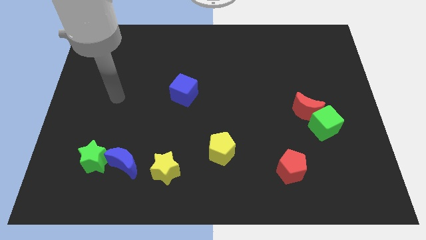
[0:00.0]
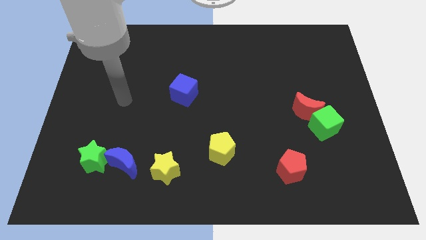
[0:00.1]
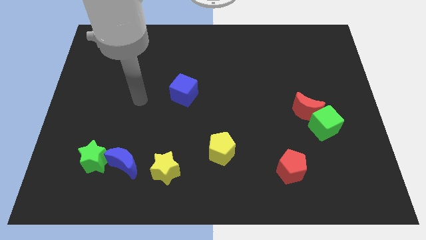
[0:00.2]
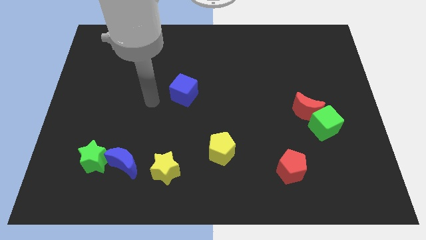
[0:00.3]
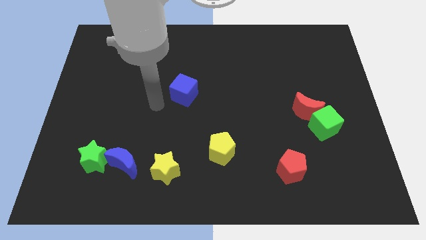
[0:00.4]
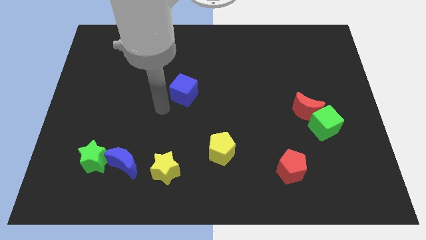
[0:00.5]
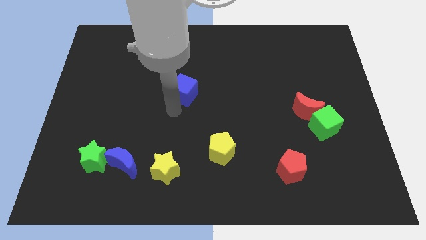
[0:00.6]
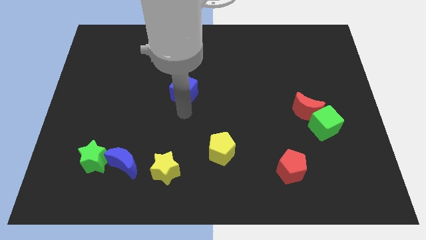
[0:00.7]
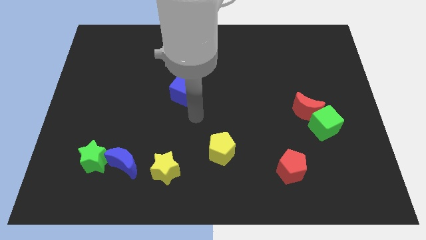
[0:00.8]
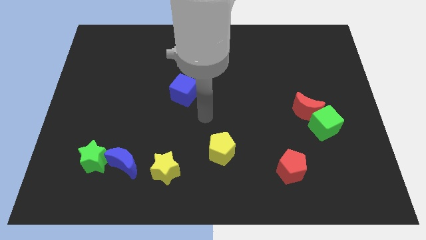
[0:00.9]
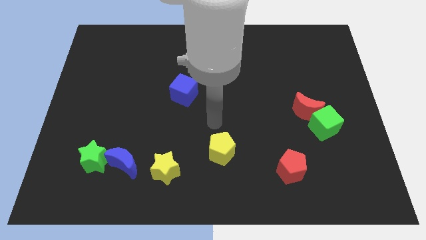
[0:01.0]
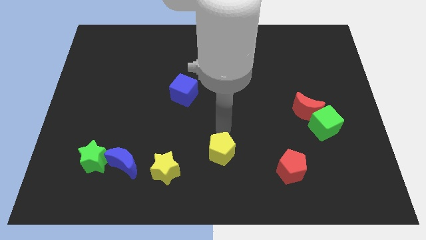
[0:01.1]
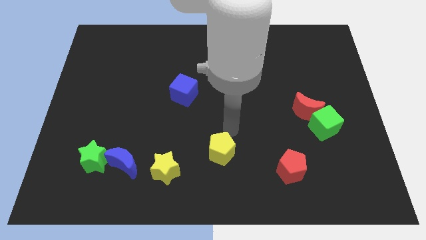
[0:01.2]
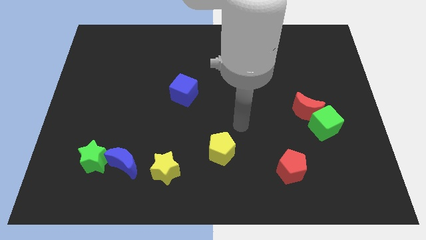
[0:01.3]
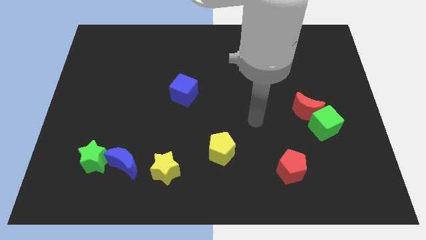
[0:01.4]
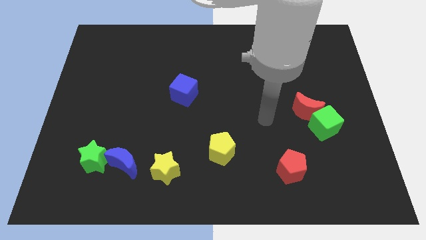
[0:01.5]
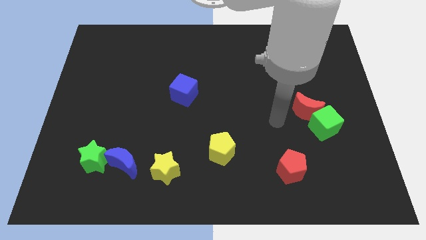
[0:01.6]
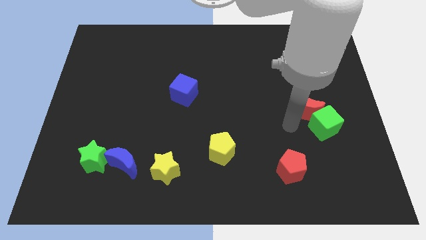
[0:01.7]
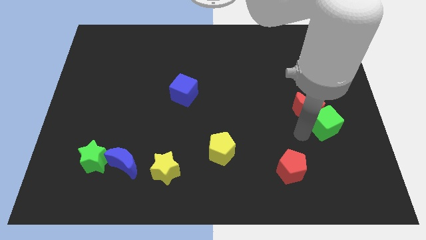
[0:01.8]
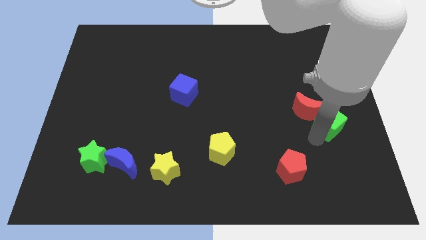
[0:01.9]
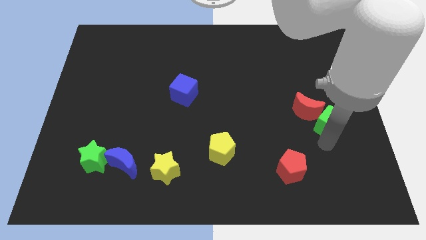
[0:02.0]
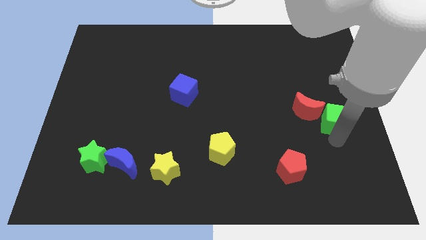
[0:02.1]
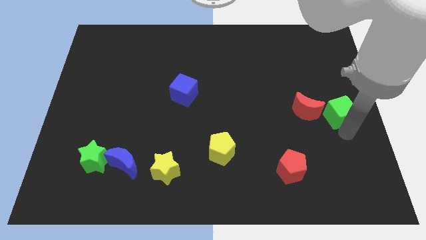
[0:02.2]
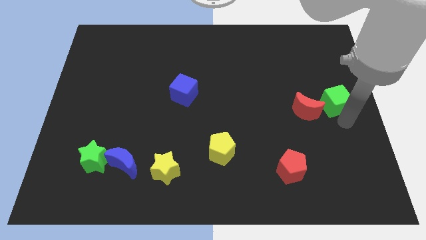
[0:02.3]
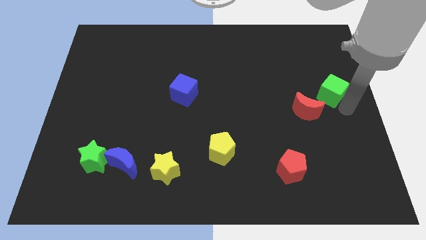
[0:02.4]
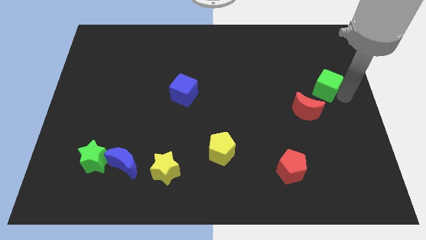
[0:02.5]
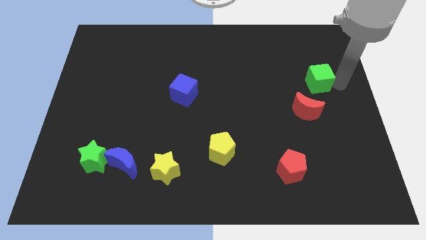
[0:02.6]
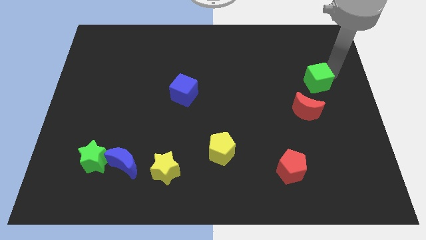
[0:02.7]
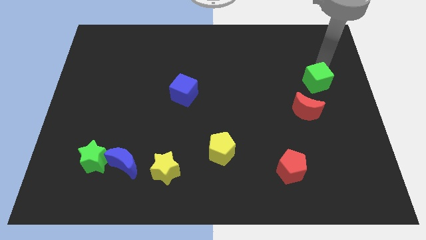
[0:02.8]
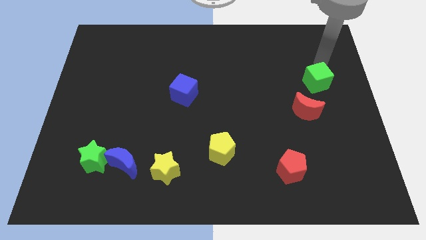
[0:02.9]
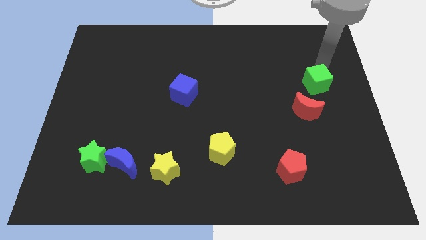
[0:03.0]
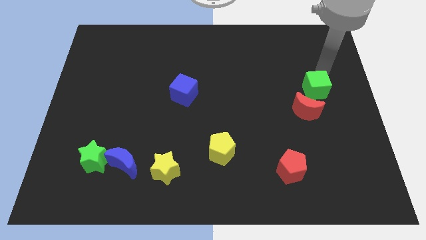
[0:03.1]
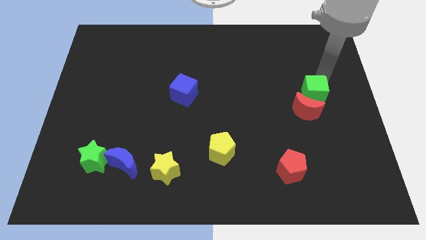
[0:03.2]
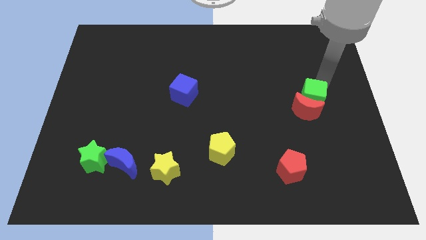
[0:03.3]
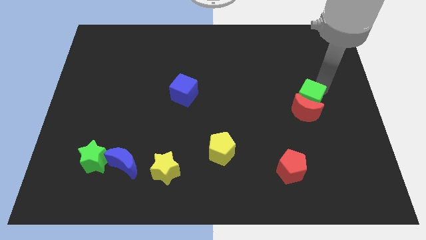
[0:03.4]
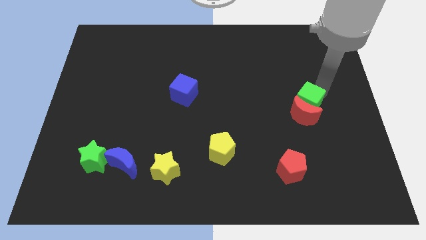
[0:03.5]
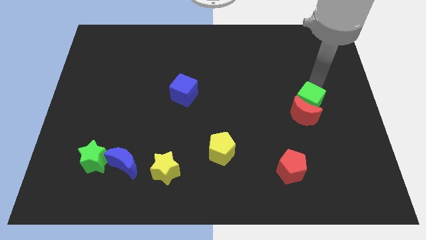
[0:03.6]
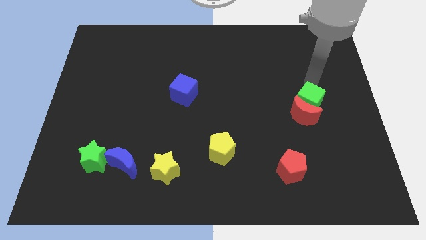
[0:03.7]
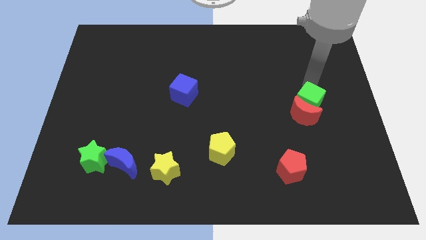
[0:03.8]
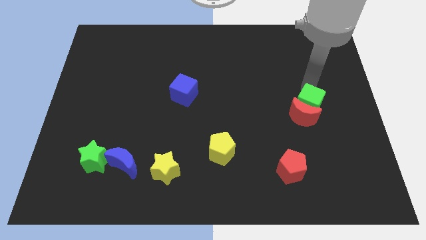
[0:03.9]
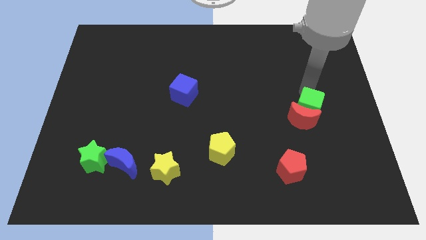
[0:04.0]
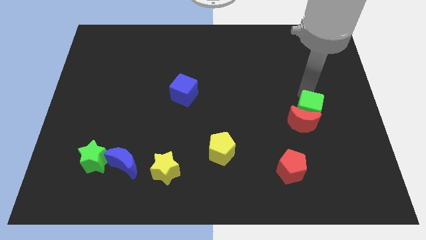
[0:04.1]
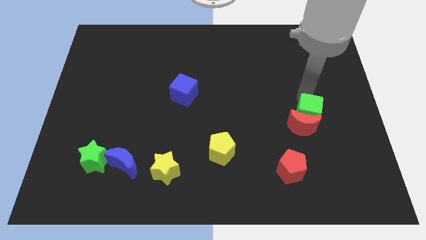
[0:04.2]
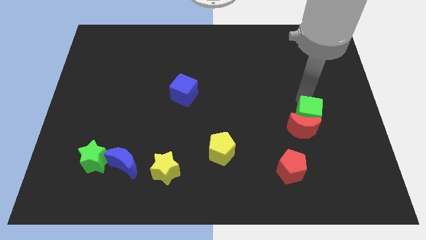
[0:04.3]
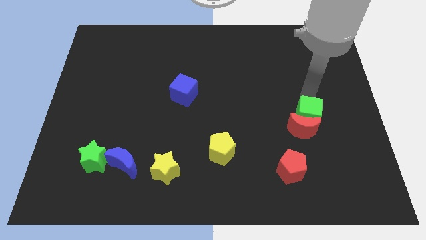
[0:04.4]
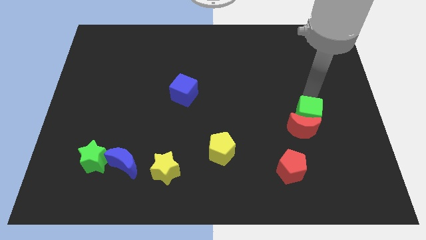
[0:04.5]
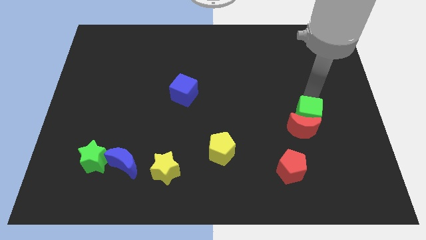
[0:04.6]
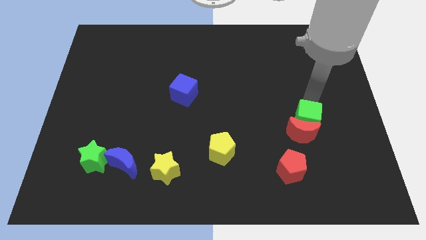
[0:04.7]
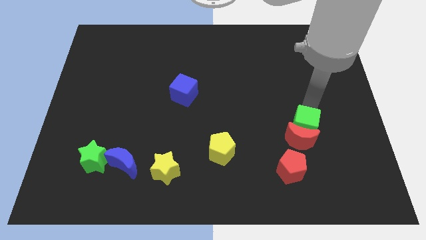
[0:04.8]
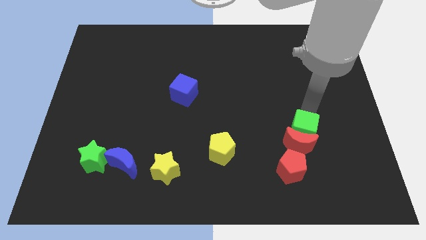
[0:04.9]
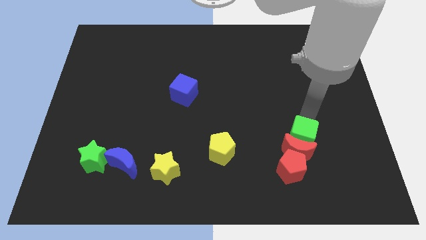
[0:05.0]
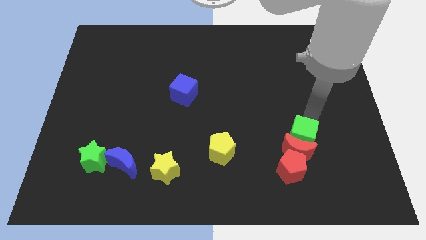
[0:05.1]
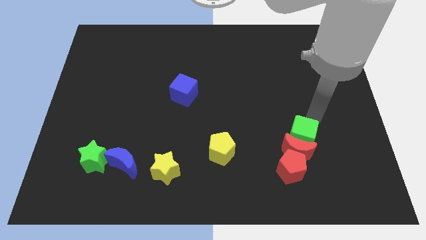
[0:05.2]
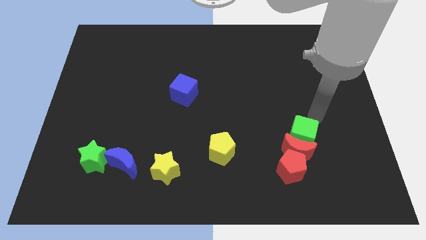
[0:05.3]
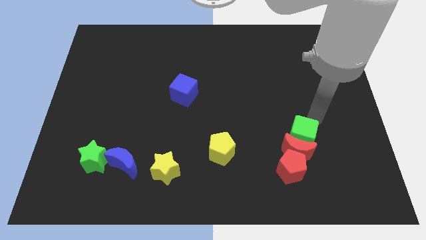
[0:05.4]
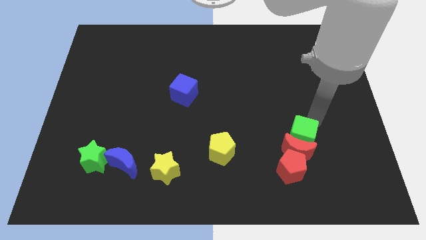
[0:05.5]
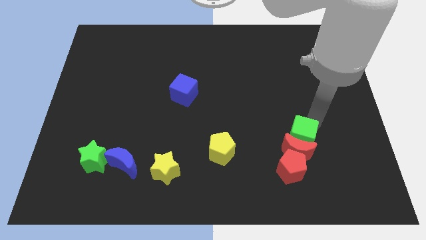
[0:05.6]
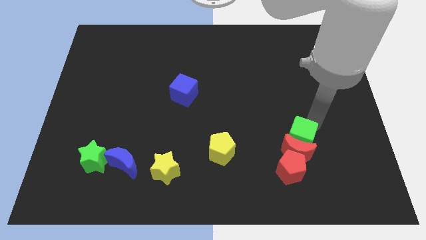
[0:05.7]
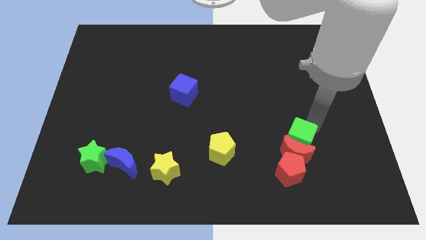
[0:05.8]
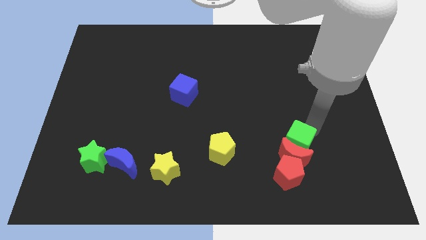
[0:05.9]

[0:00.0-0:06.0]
slightly move the green cube down and left

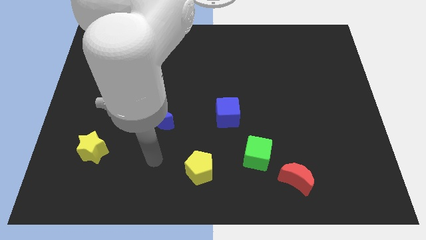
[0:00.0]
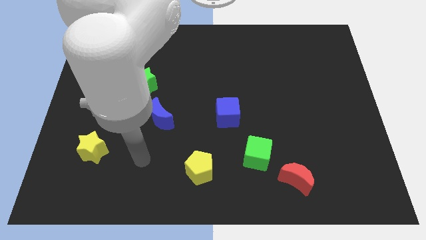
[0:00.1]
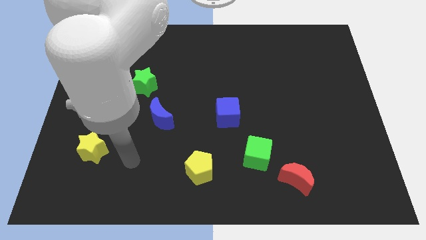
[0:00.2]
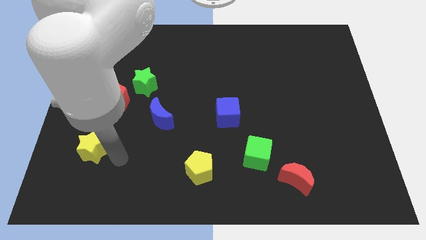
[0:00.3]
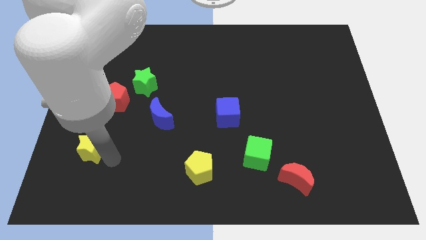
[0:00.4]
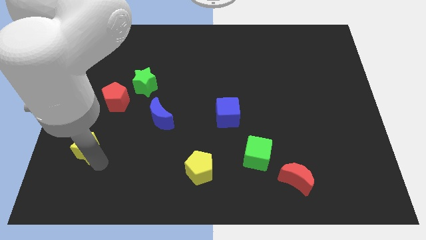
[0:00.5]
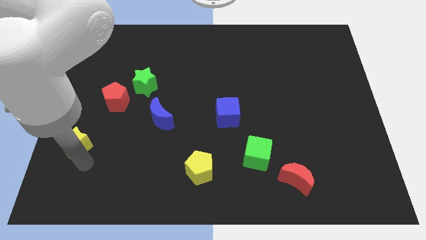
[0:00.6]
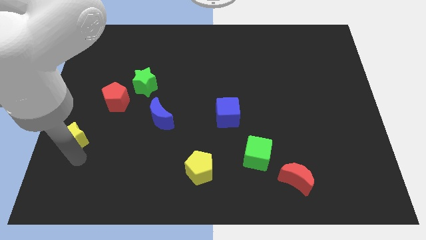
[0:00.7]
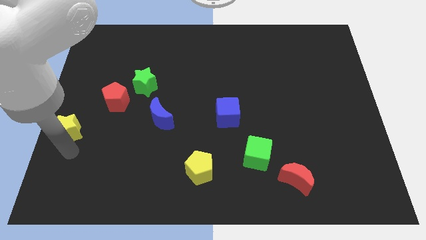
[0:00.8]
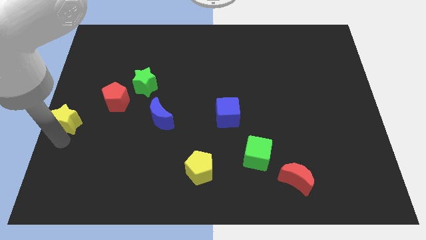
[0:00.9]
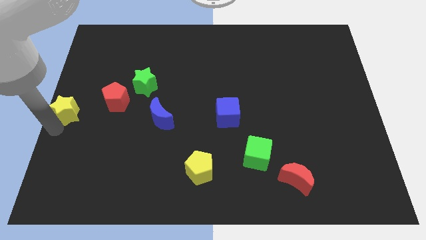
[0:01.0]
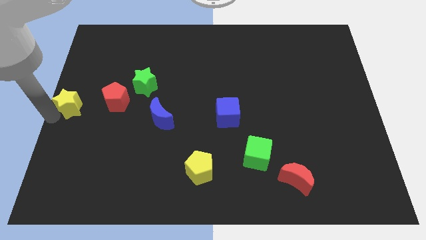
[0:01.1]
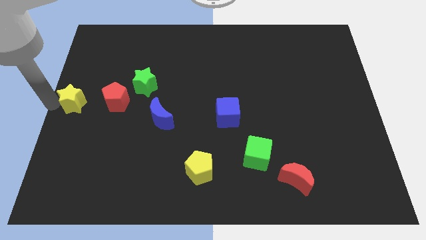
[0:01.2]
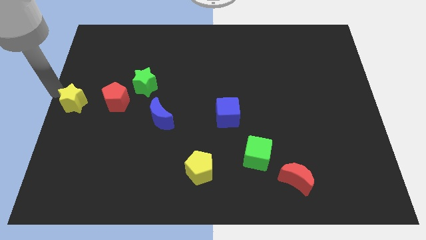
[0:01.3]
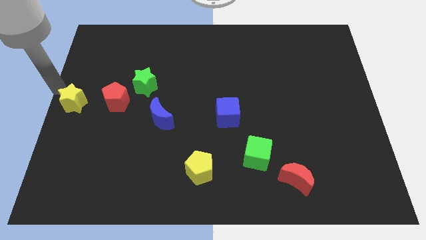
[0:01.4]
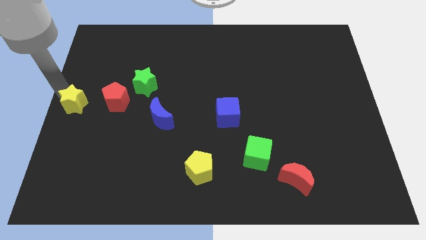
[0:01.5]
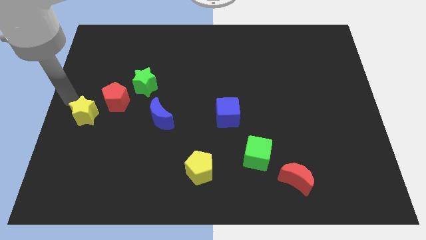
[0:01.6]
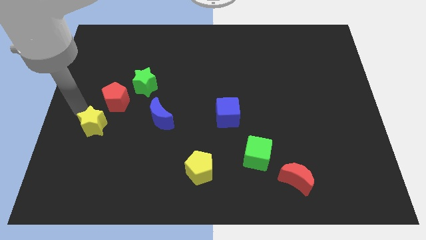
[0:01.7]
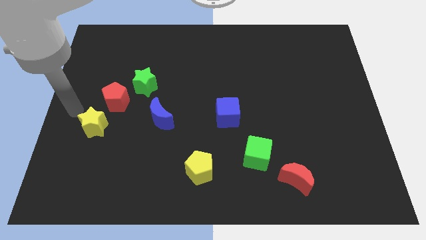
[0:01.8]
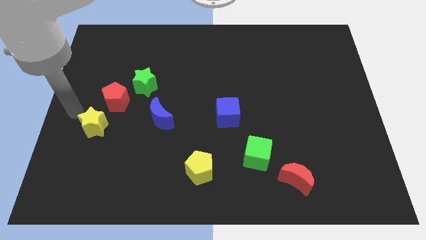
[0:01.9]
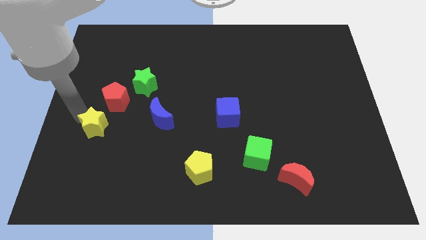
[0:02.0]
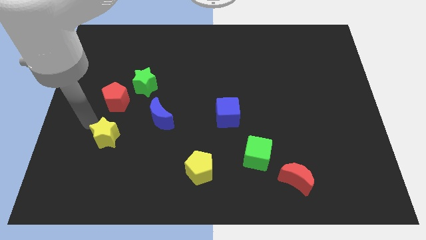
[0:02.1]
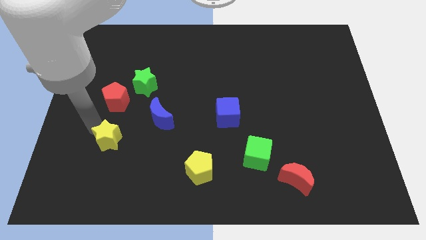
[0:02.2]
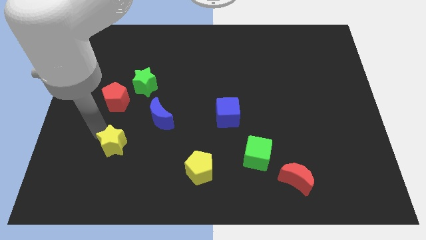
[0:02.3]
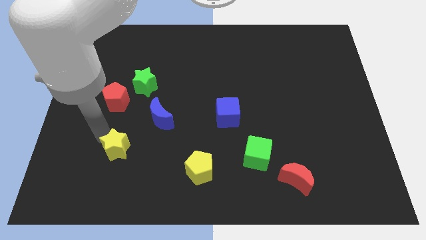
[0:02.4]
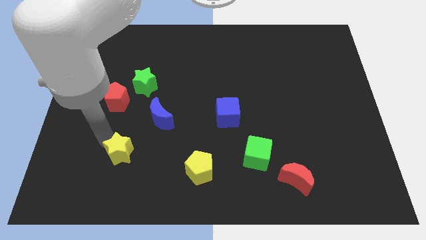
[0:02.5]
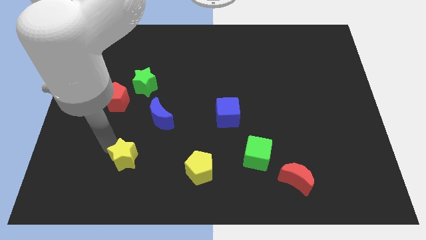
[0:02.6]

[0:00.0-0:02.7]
slightly slide the yellow star right
